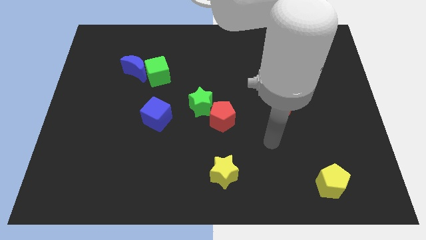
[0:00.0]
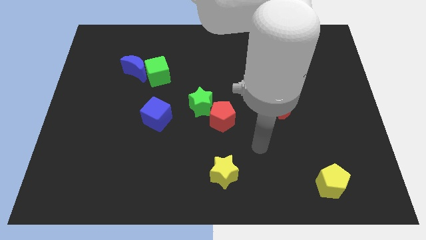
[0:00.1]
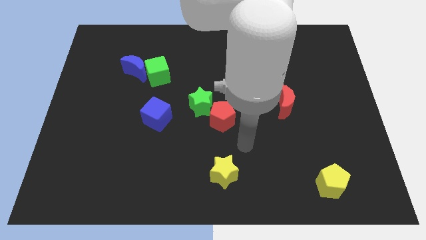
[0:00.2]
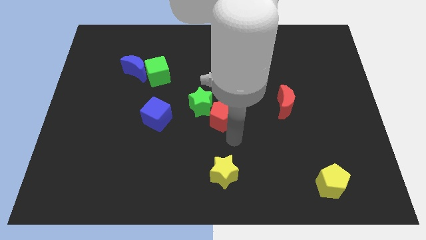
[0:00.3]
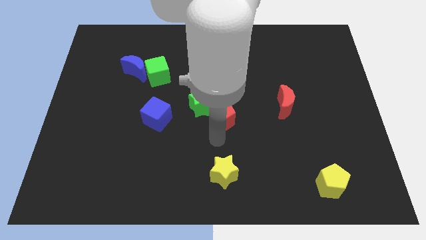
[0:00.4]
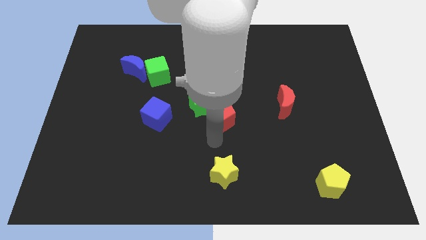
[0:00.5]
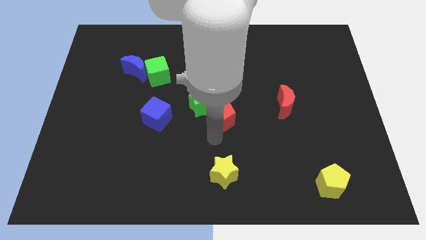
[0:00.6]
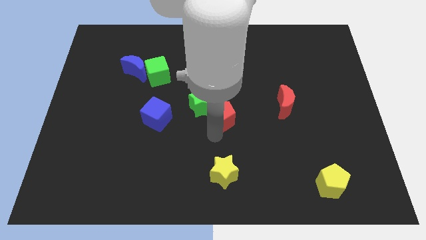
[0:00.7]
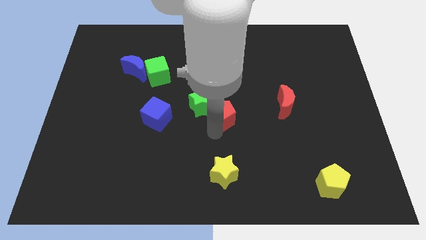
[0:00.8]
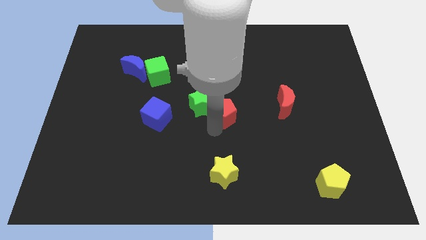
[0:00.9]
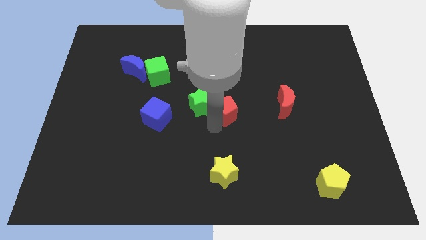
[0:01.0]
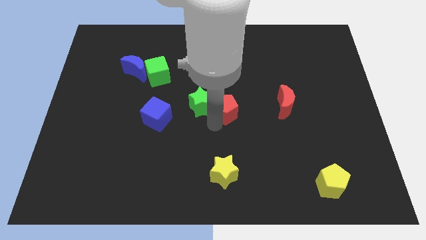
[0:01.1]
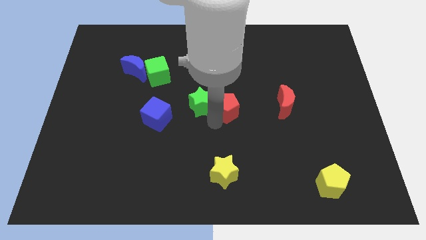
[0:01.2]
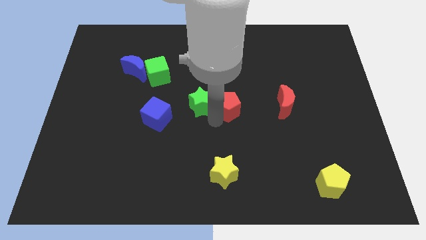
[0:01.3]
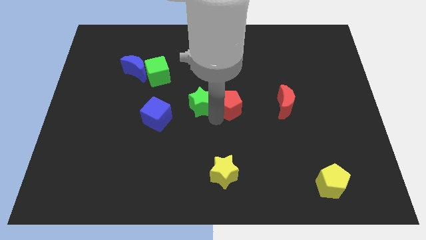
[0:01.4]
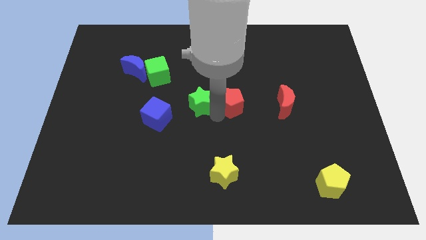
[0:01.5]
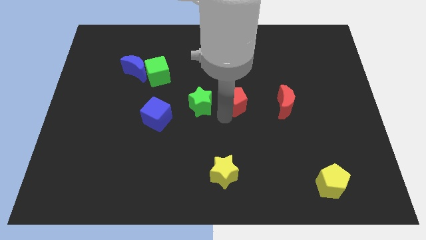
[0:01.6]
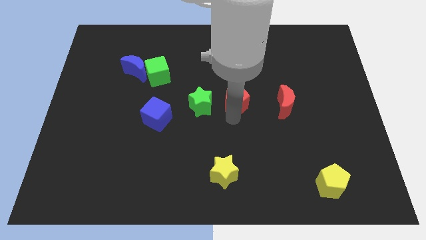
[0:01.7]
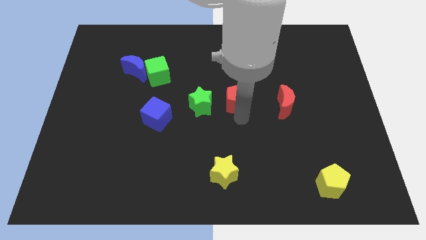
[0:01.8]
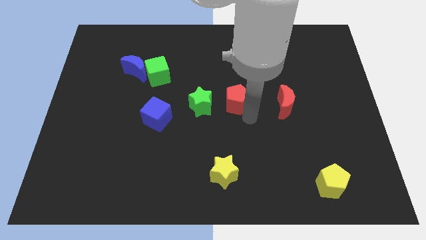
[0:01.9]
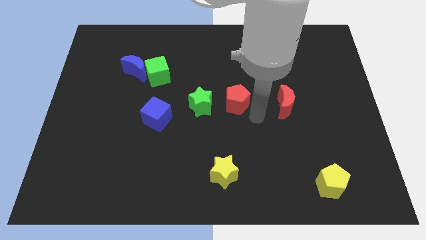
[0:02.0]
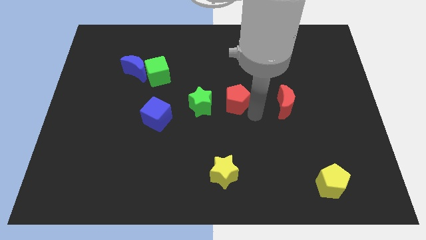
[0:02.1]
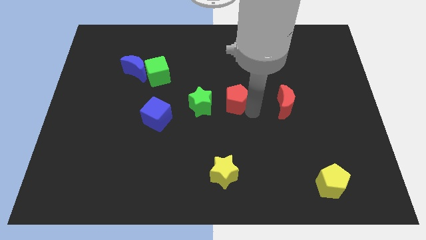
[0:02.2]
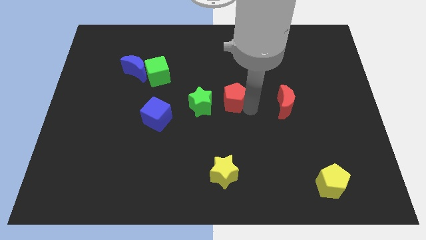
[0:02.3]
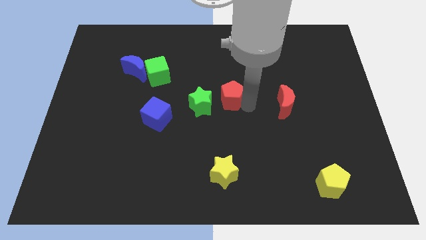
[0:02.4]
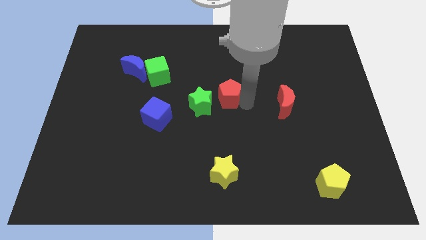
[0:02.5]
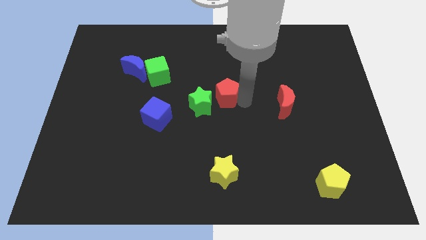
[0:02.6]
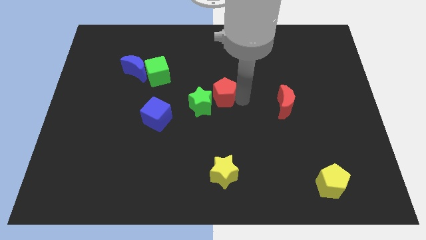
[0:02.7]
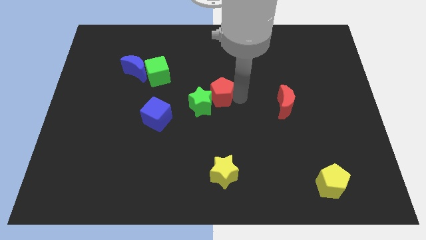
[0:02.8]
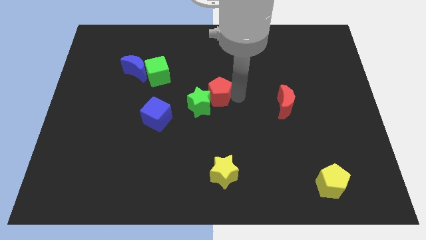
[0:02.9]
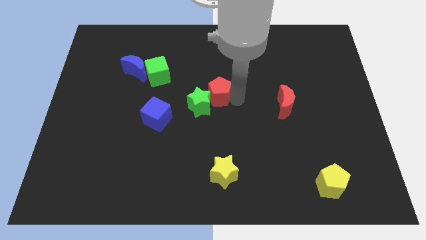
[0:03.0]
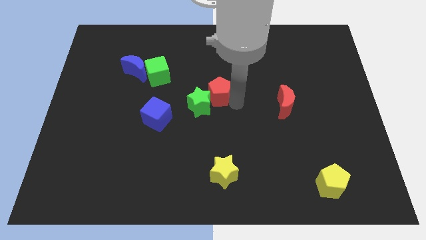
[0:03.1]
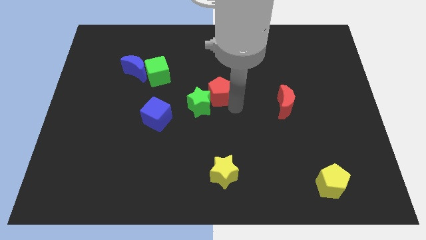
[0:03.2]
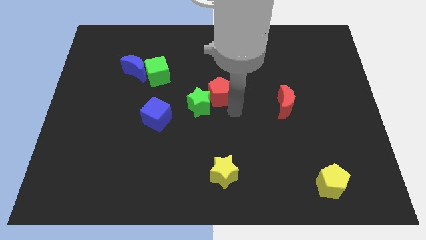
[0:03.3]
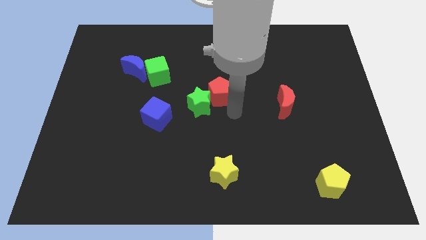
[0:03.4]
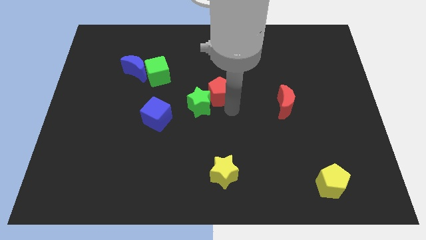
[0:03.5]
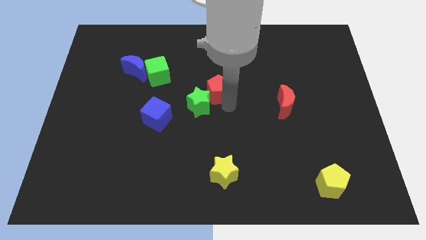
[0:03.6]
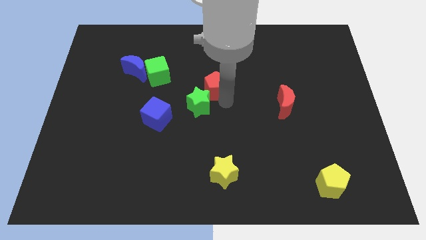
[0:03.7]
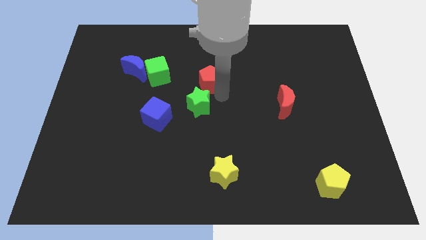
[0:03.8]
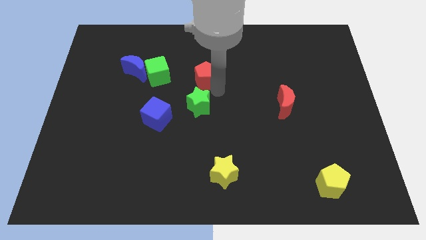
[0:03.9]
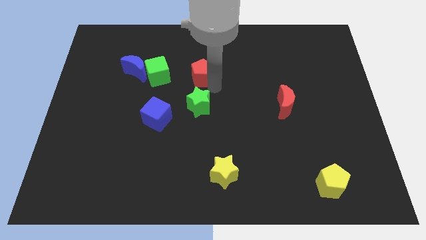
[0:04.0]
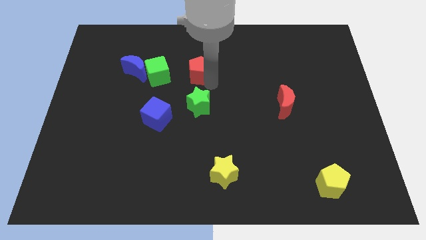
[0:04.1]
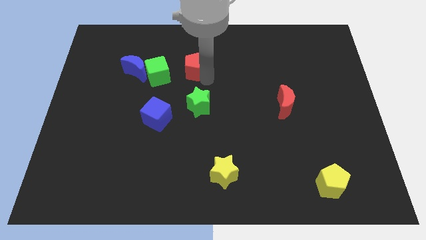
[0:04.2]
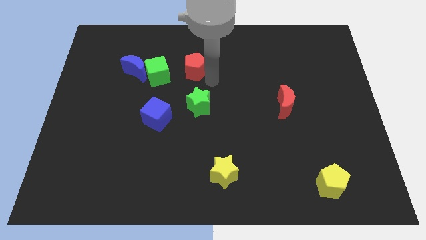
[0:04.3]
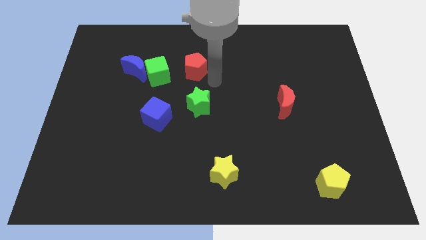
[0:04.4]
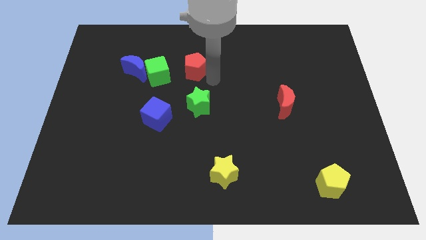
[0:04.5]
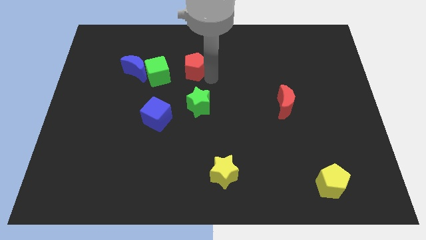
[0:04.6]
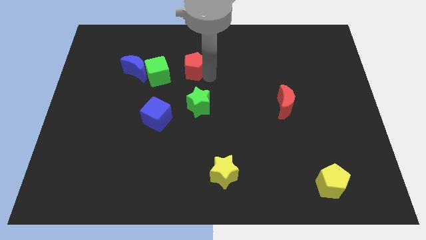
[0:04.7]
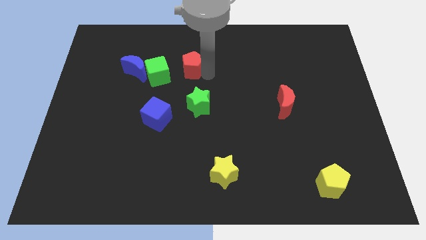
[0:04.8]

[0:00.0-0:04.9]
put the red pentagon diagonally up and to the right of the green cube

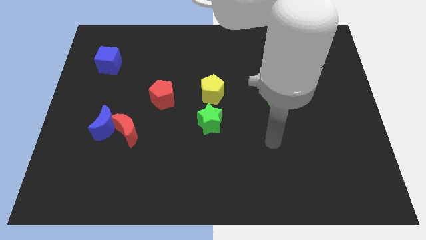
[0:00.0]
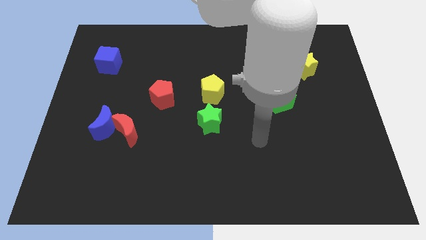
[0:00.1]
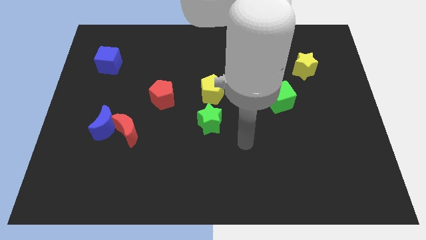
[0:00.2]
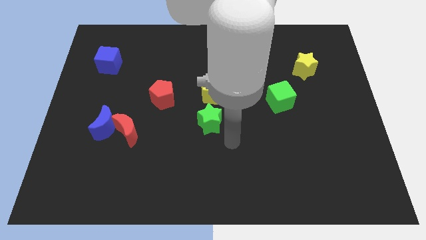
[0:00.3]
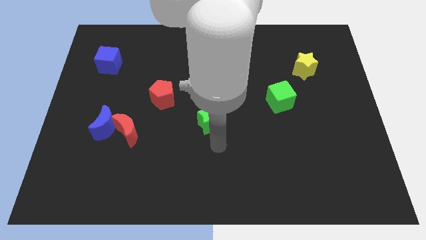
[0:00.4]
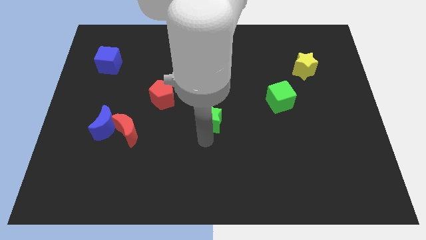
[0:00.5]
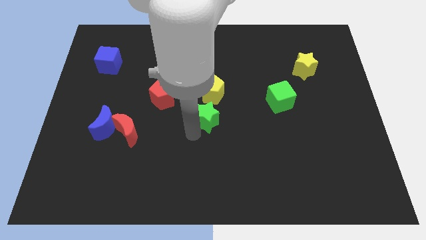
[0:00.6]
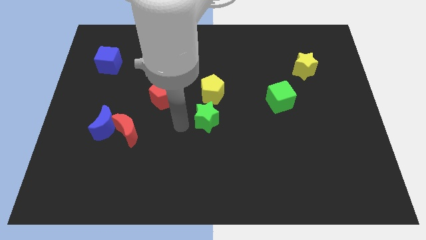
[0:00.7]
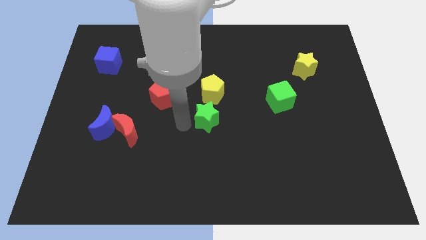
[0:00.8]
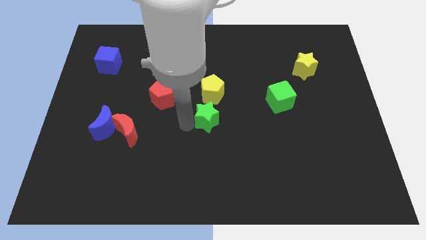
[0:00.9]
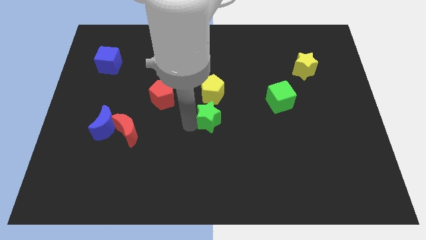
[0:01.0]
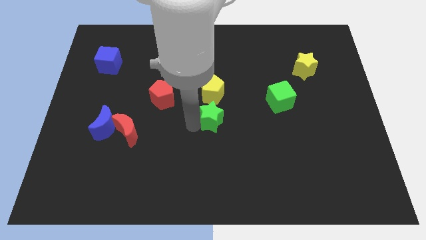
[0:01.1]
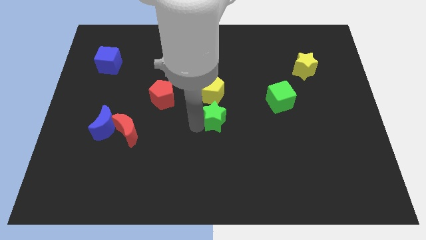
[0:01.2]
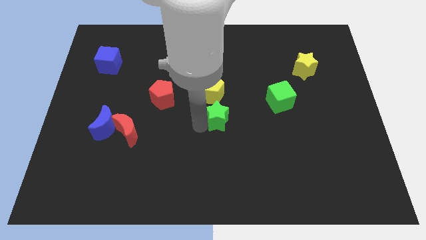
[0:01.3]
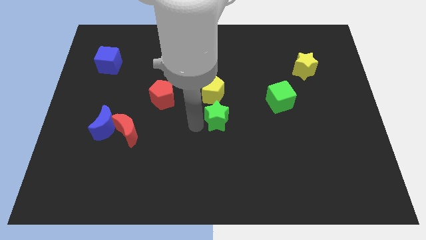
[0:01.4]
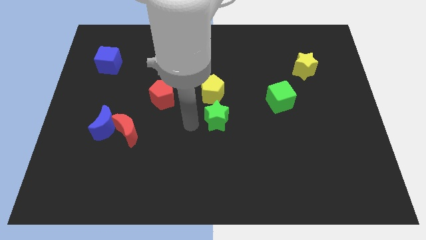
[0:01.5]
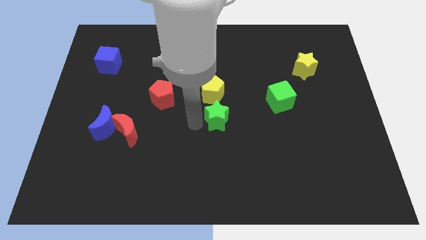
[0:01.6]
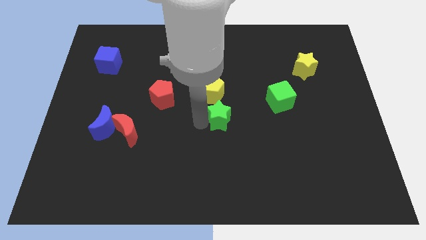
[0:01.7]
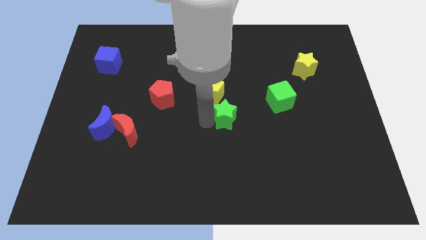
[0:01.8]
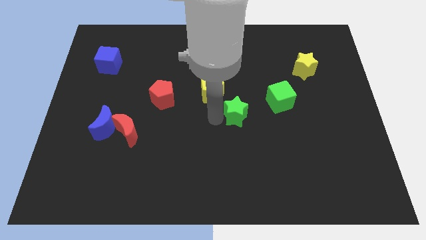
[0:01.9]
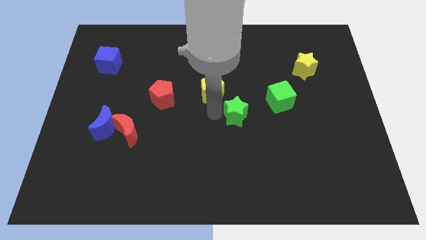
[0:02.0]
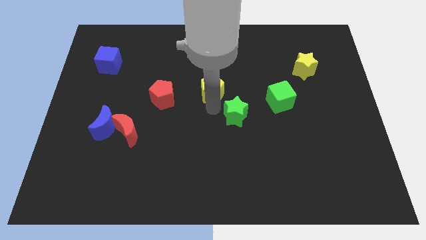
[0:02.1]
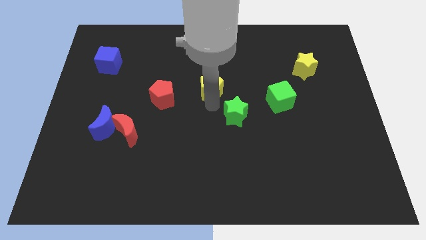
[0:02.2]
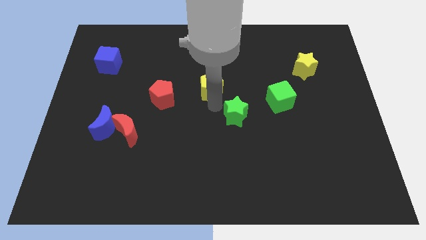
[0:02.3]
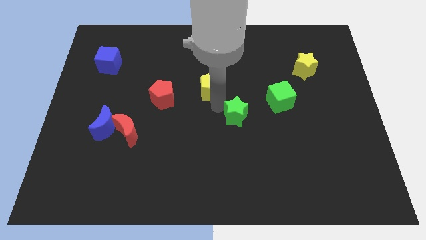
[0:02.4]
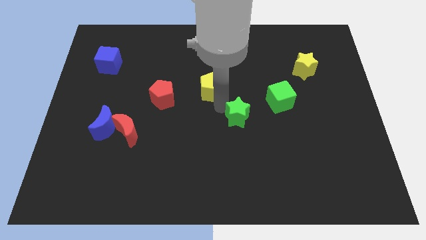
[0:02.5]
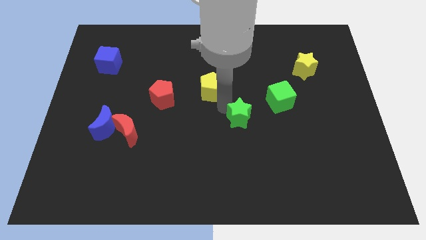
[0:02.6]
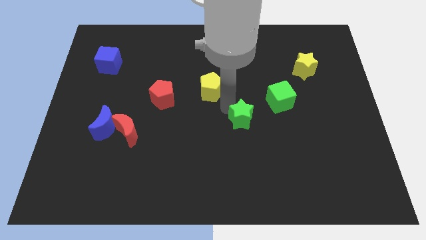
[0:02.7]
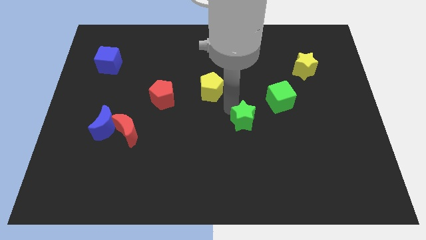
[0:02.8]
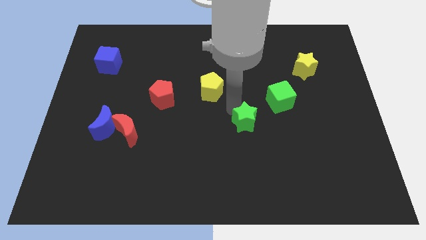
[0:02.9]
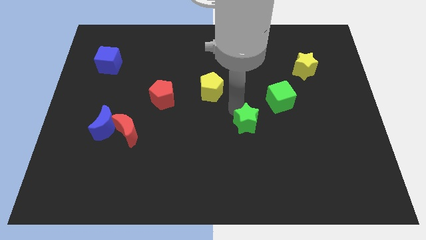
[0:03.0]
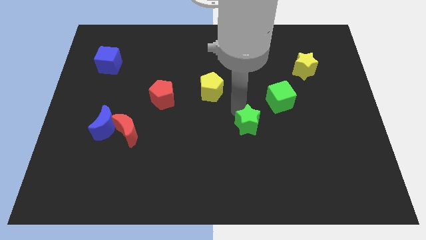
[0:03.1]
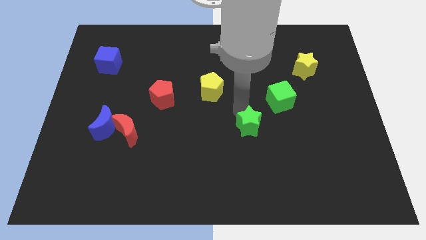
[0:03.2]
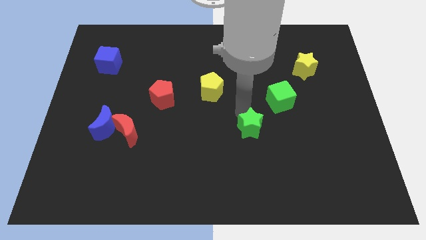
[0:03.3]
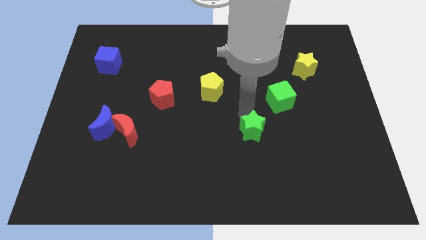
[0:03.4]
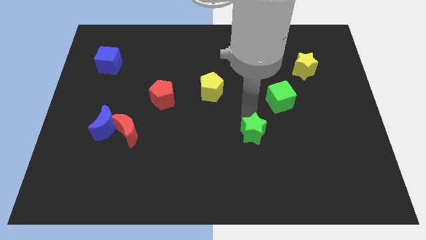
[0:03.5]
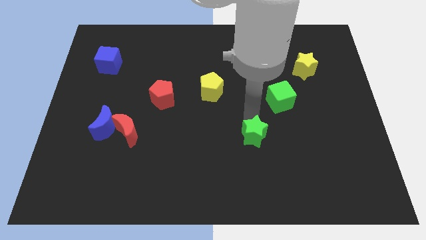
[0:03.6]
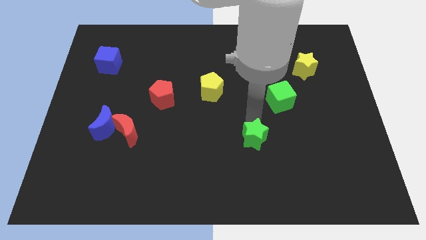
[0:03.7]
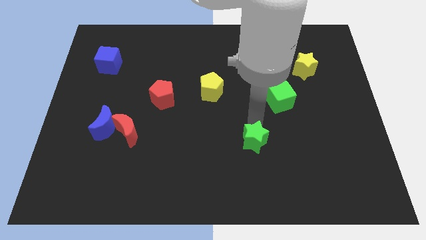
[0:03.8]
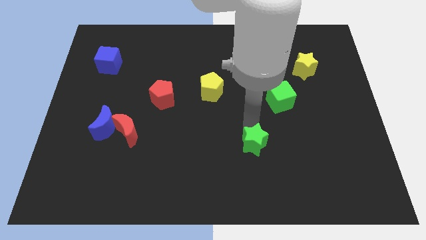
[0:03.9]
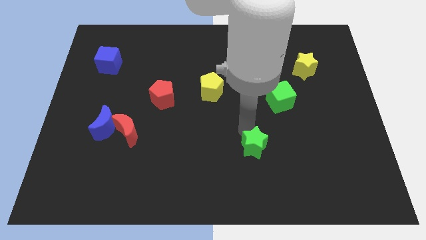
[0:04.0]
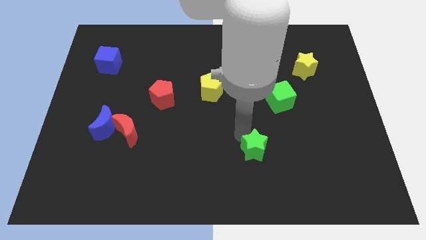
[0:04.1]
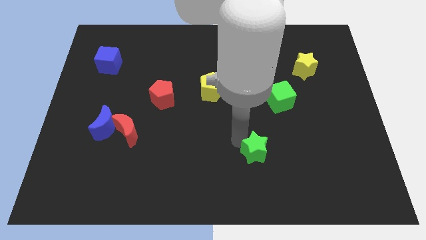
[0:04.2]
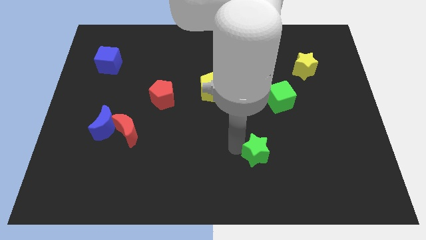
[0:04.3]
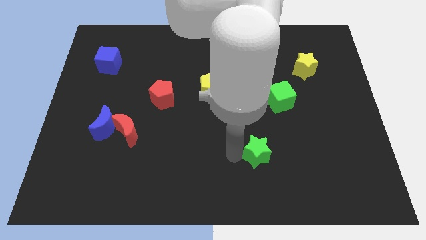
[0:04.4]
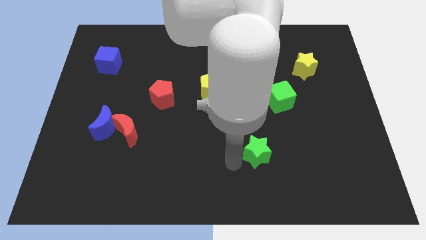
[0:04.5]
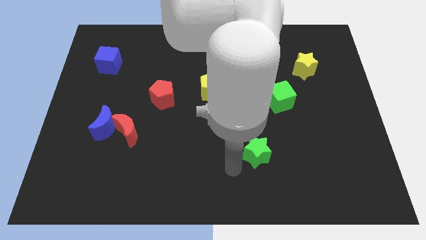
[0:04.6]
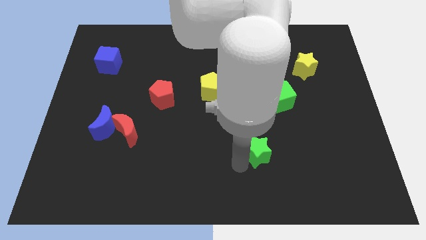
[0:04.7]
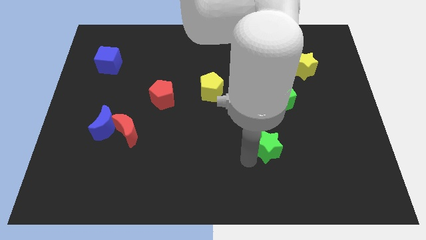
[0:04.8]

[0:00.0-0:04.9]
slide the green star to the bottom of the green cube
